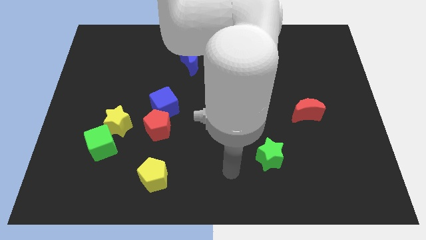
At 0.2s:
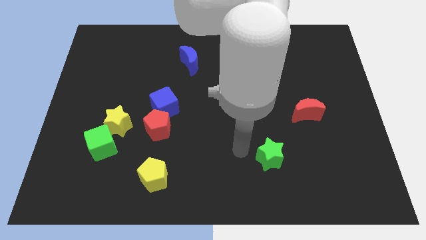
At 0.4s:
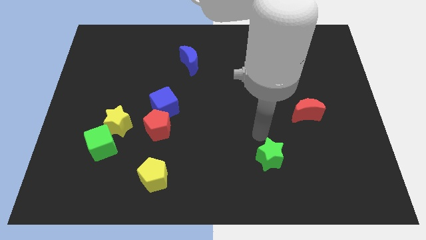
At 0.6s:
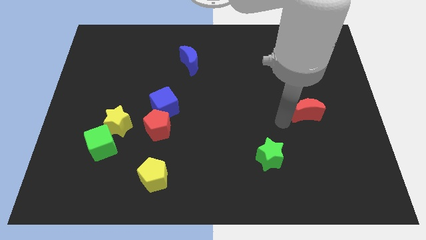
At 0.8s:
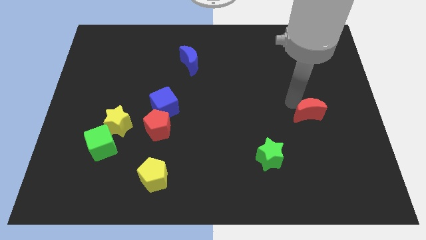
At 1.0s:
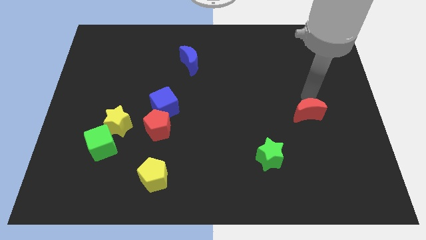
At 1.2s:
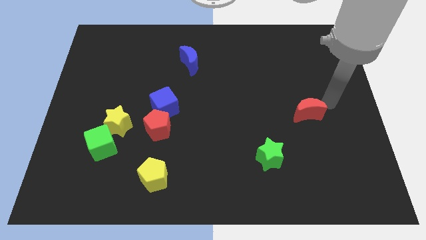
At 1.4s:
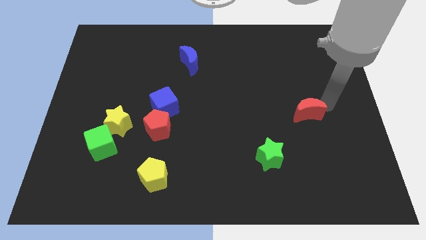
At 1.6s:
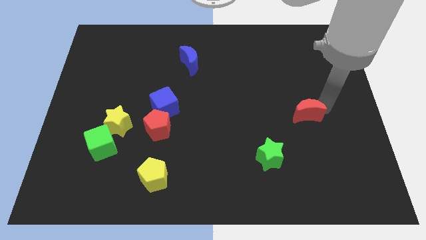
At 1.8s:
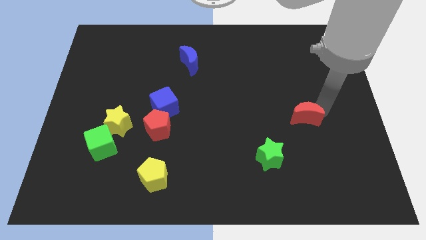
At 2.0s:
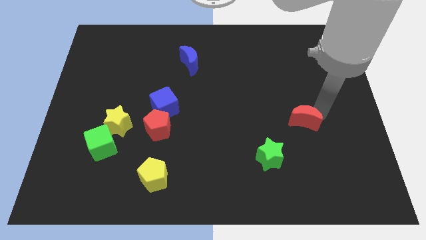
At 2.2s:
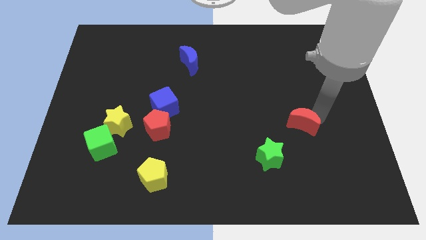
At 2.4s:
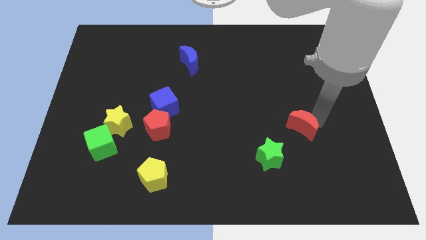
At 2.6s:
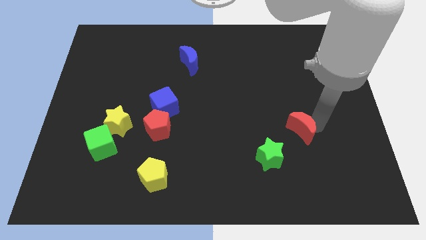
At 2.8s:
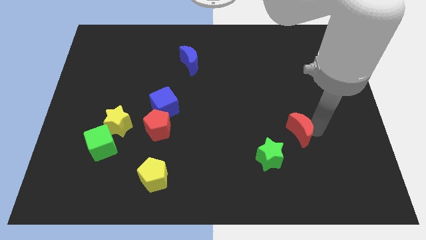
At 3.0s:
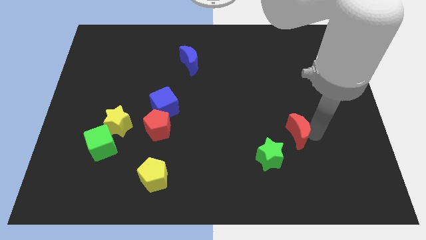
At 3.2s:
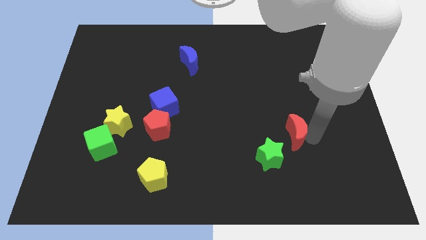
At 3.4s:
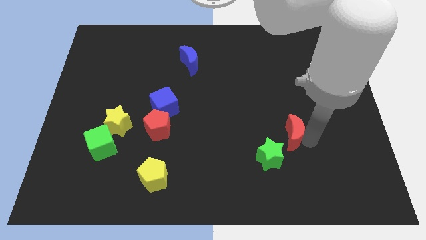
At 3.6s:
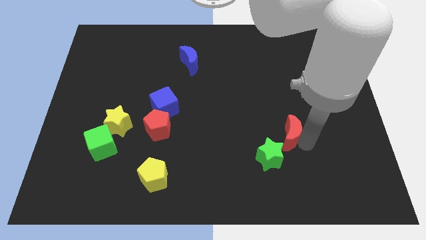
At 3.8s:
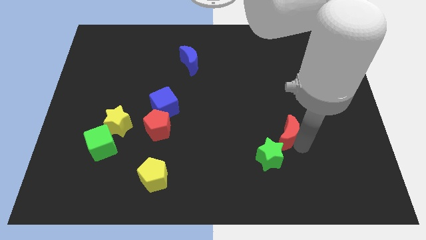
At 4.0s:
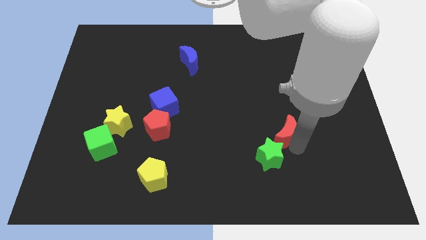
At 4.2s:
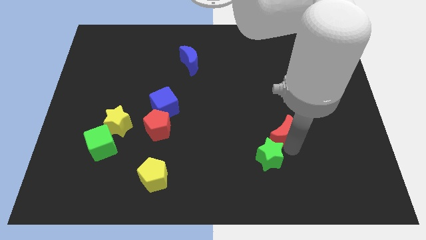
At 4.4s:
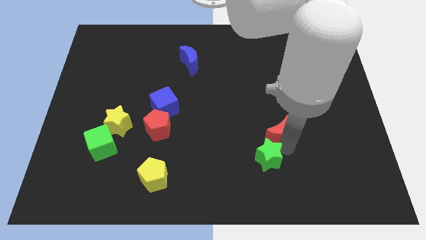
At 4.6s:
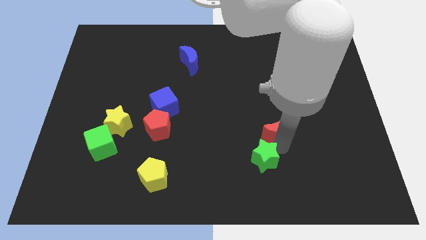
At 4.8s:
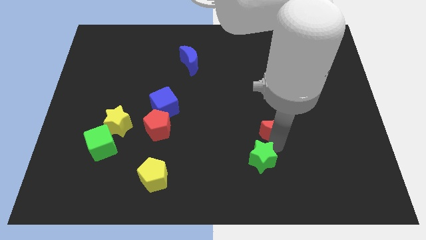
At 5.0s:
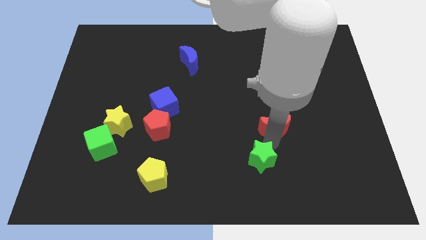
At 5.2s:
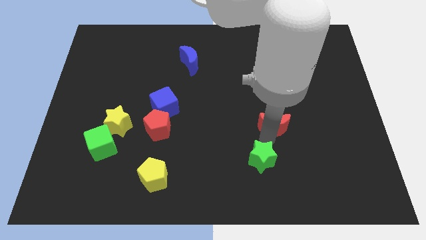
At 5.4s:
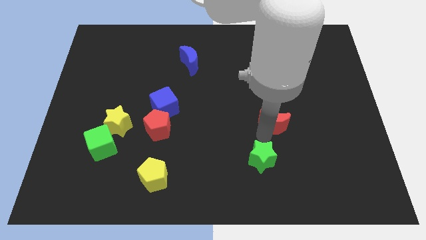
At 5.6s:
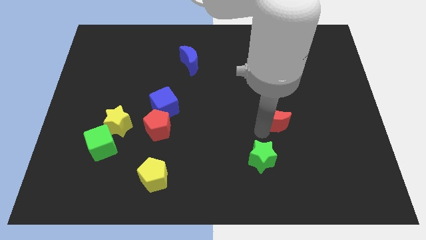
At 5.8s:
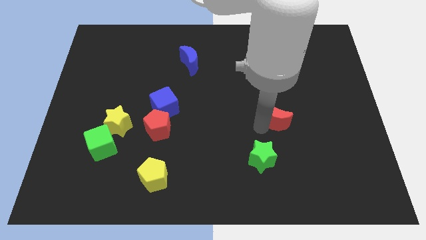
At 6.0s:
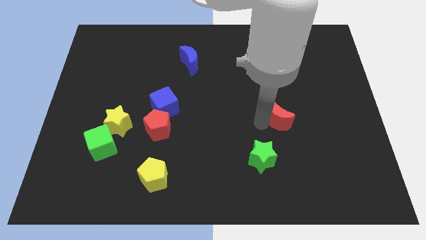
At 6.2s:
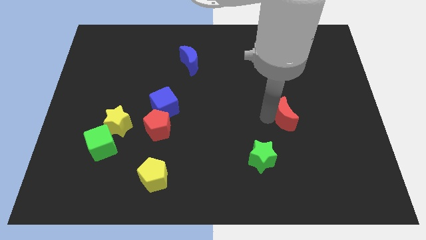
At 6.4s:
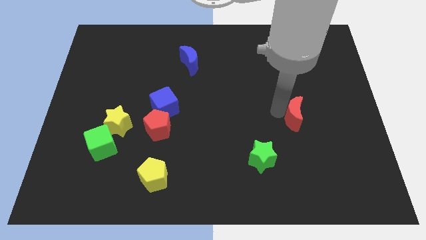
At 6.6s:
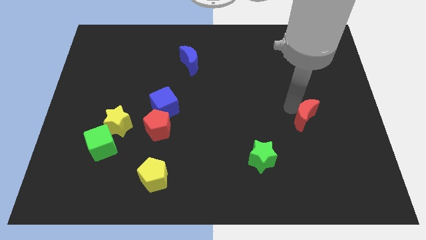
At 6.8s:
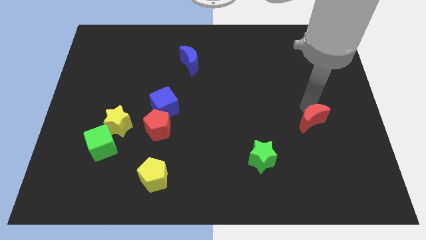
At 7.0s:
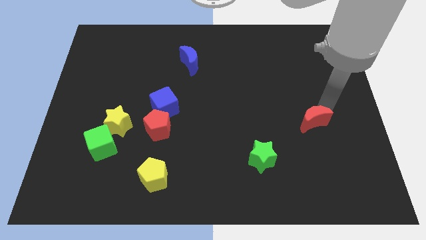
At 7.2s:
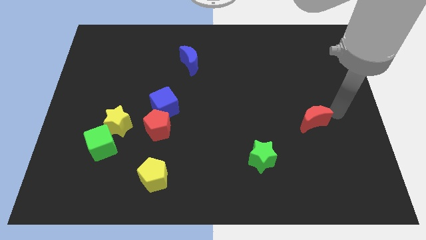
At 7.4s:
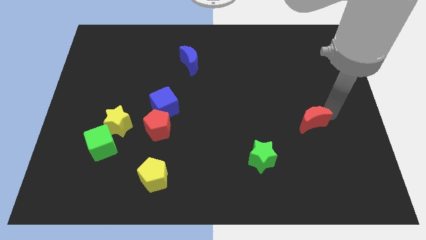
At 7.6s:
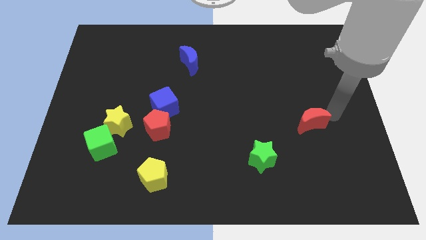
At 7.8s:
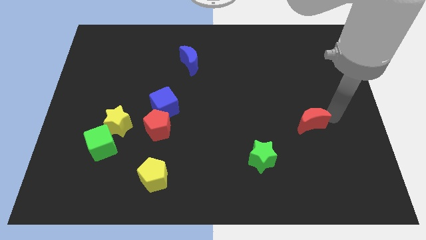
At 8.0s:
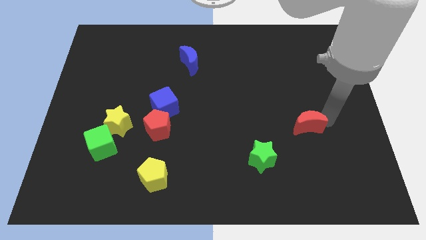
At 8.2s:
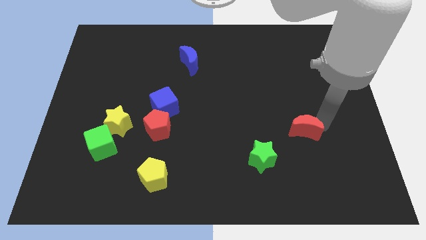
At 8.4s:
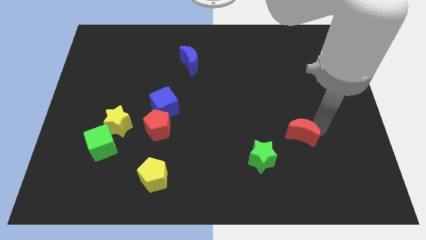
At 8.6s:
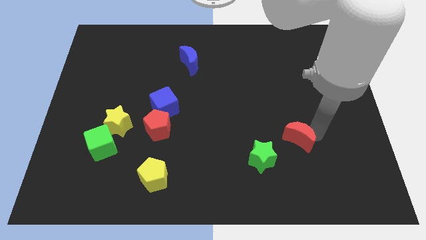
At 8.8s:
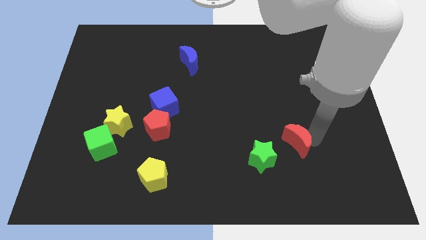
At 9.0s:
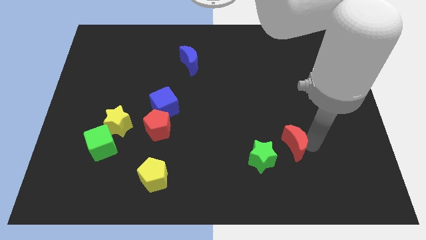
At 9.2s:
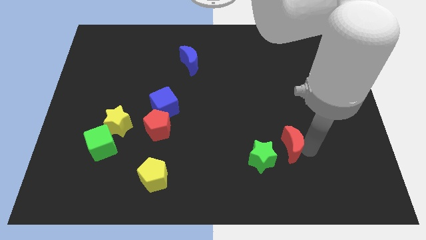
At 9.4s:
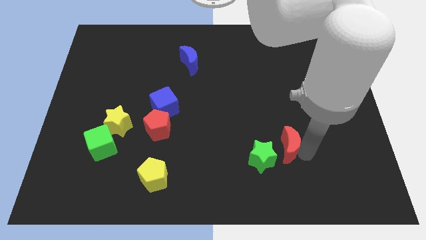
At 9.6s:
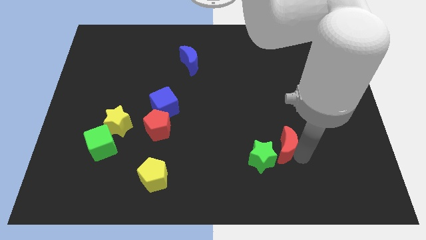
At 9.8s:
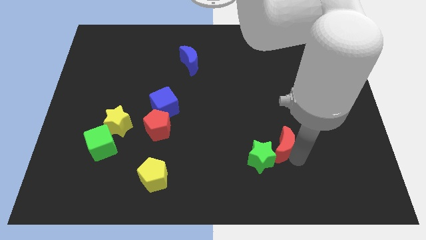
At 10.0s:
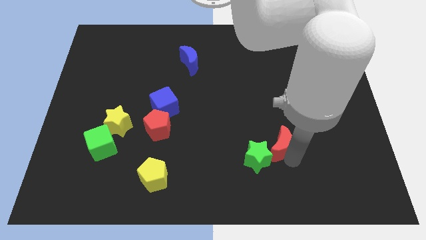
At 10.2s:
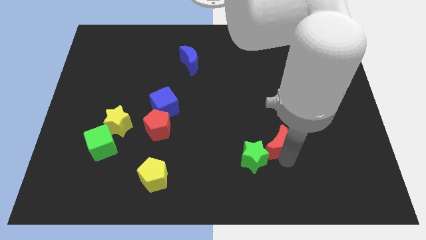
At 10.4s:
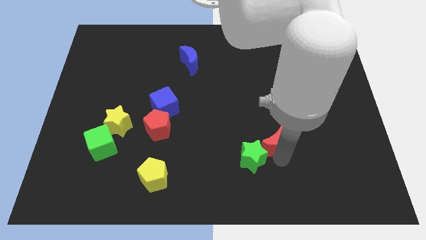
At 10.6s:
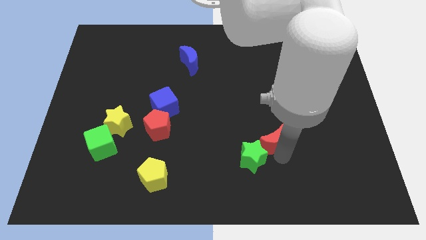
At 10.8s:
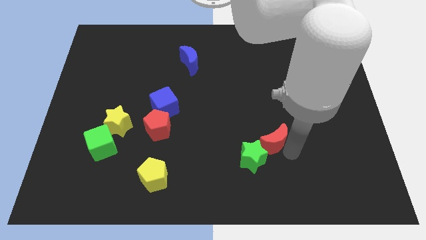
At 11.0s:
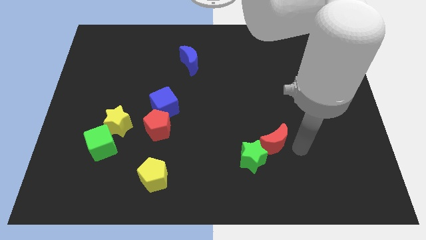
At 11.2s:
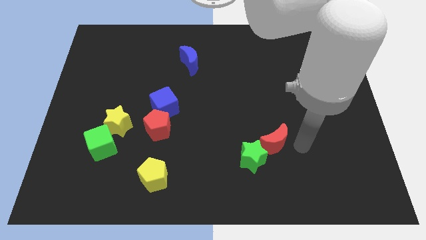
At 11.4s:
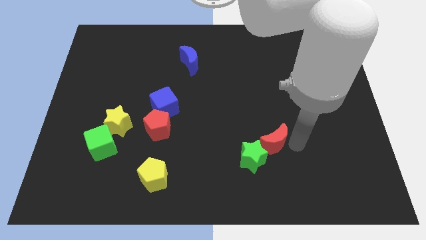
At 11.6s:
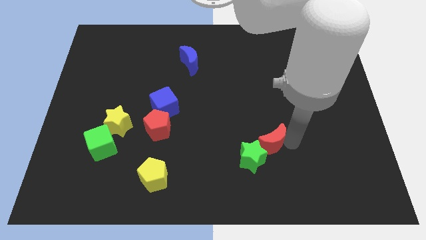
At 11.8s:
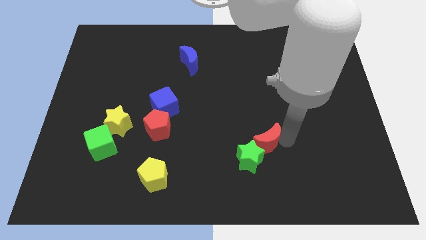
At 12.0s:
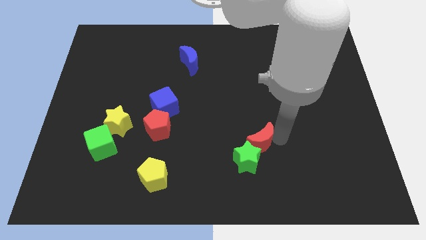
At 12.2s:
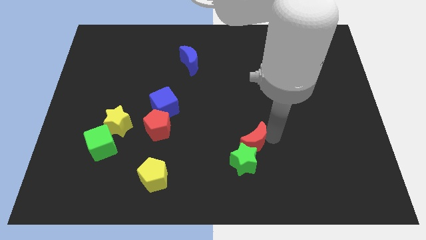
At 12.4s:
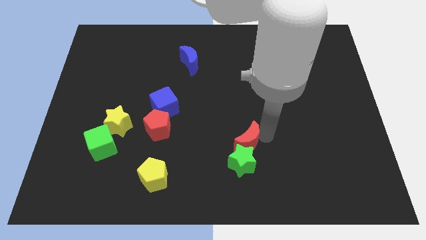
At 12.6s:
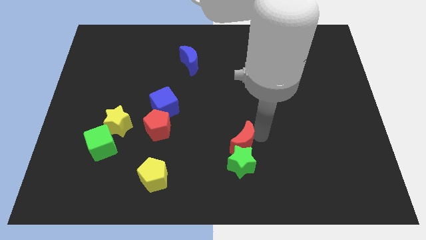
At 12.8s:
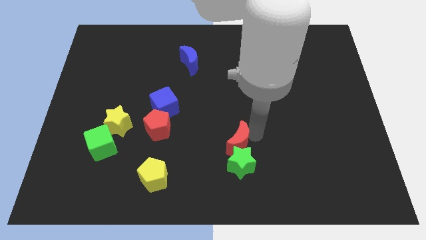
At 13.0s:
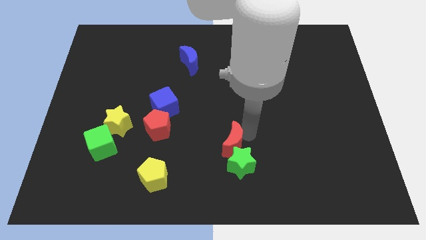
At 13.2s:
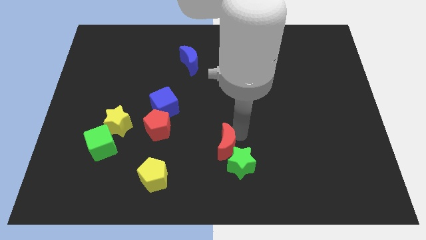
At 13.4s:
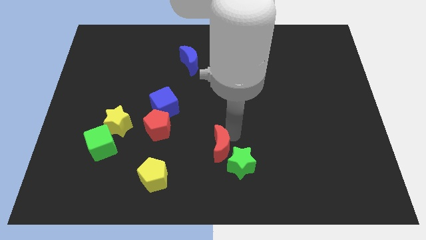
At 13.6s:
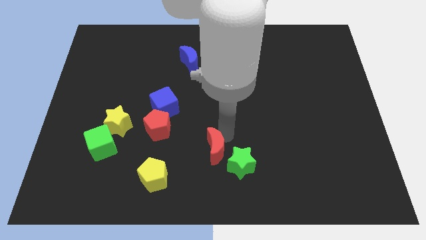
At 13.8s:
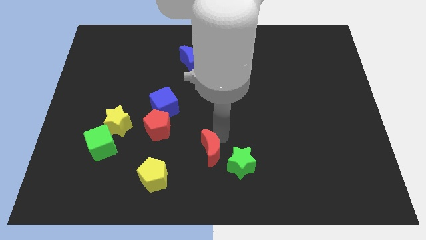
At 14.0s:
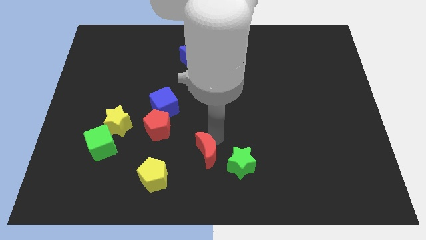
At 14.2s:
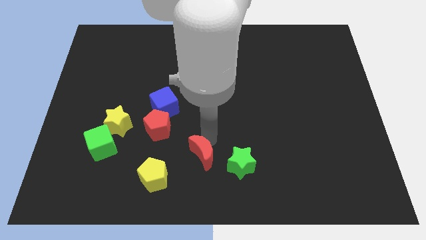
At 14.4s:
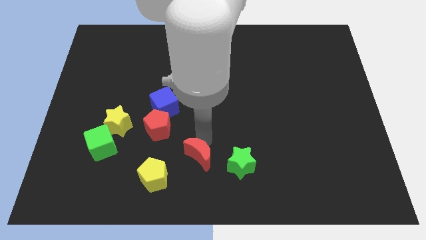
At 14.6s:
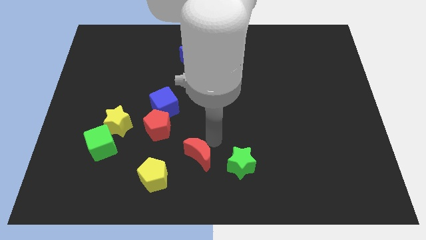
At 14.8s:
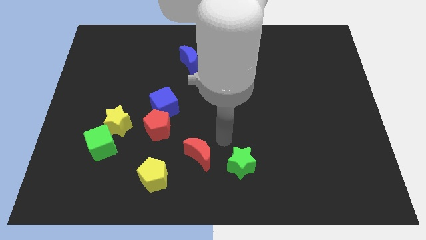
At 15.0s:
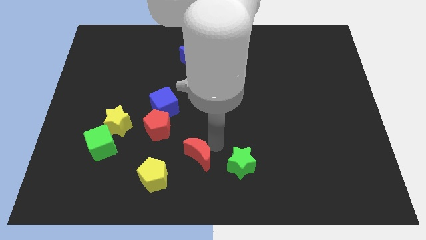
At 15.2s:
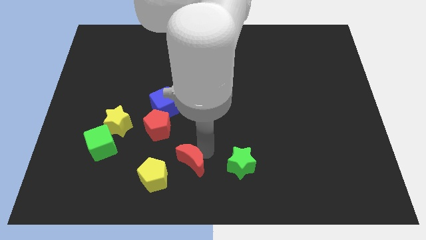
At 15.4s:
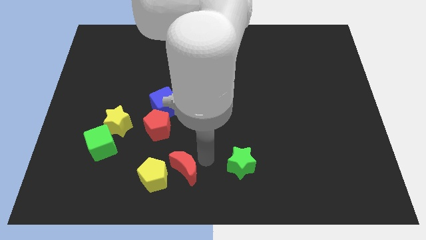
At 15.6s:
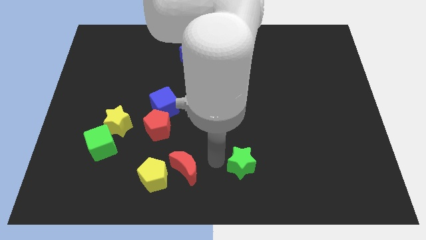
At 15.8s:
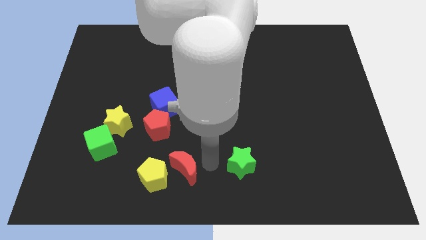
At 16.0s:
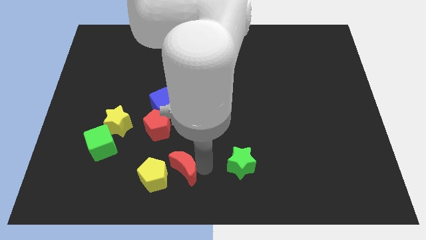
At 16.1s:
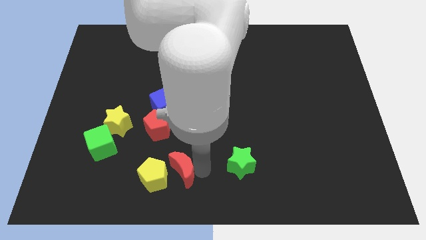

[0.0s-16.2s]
push the red moon next to the yellow pentagon
